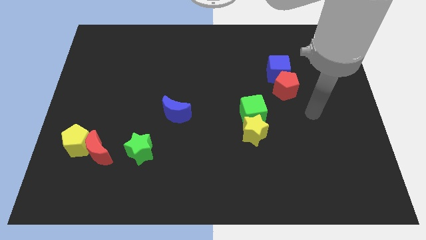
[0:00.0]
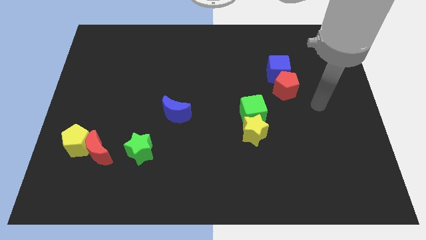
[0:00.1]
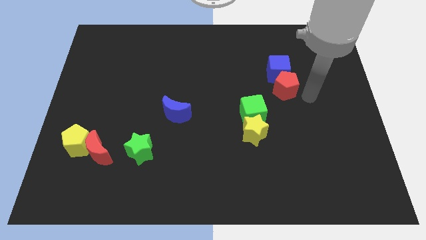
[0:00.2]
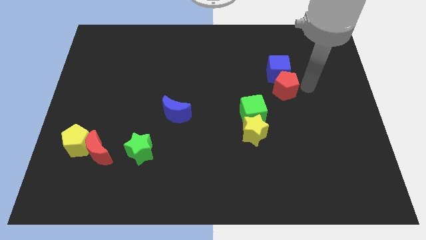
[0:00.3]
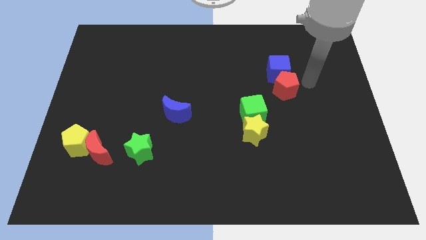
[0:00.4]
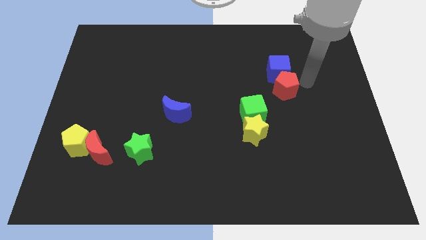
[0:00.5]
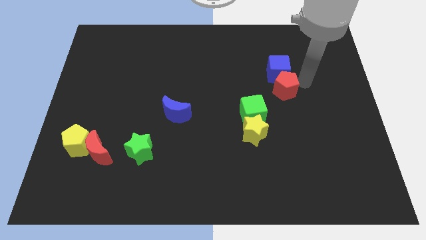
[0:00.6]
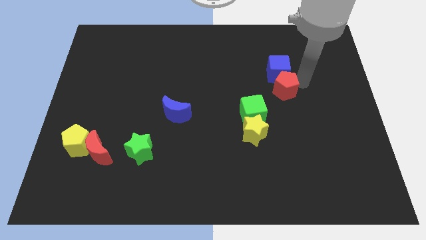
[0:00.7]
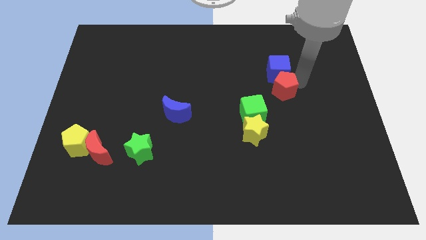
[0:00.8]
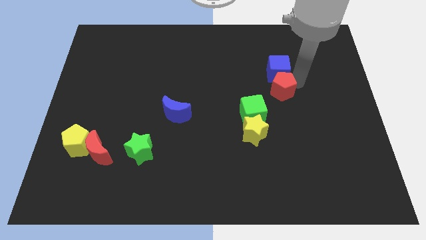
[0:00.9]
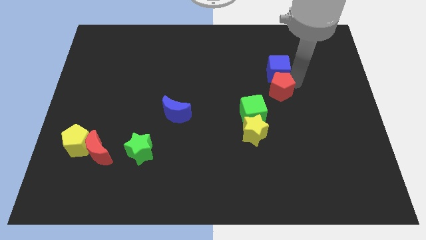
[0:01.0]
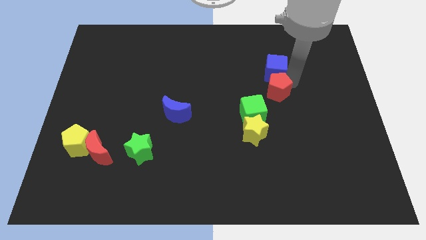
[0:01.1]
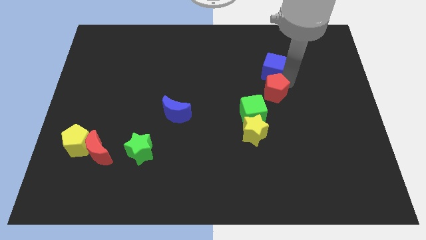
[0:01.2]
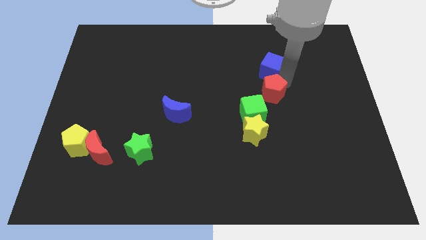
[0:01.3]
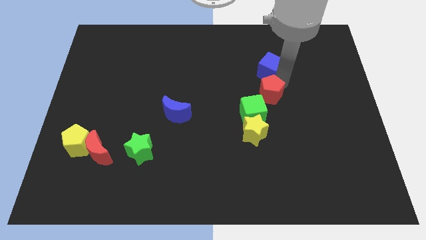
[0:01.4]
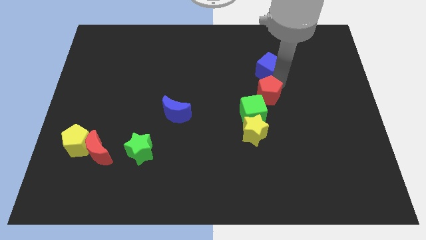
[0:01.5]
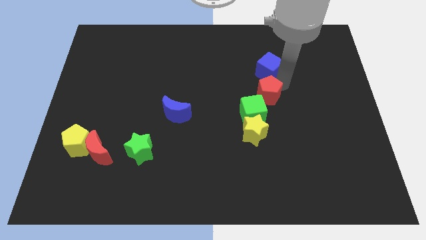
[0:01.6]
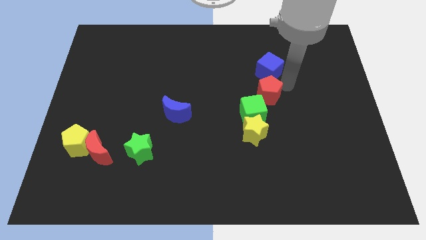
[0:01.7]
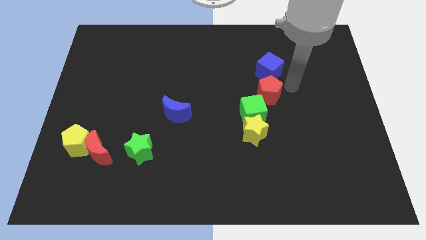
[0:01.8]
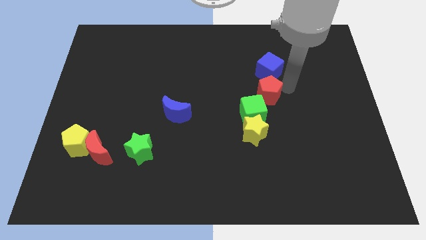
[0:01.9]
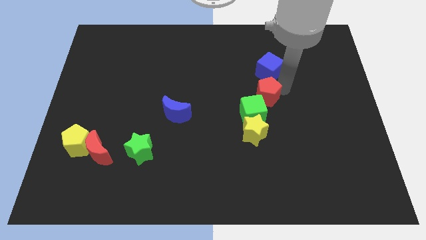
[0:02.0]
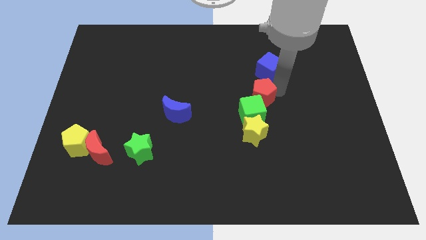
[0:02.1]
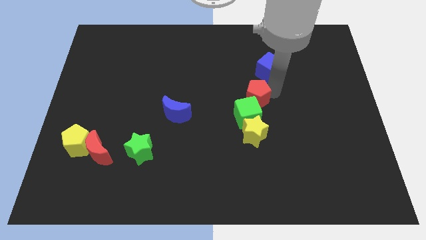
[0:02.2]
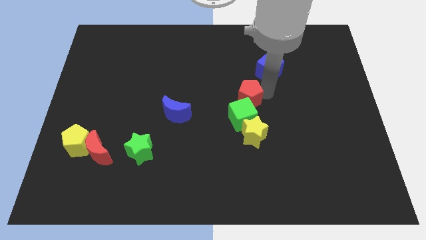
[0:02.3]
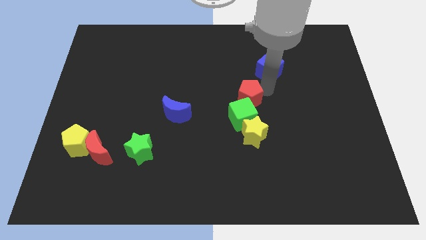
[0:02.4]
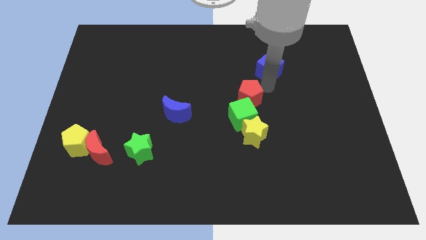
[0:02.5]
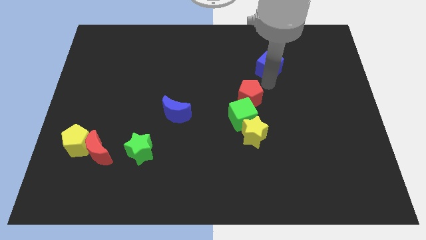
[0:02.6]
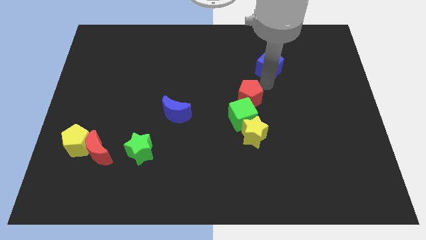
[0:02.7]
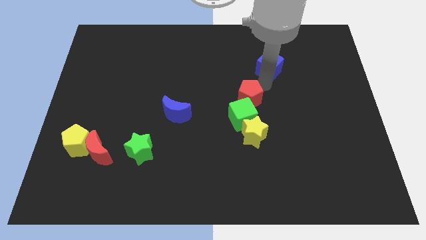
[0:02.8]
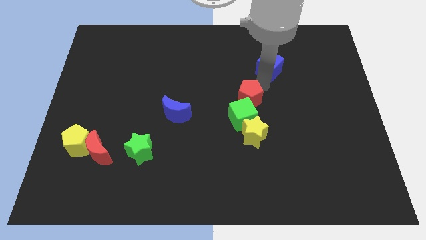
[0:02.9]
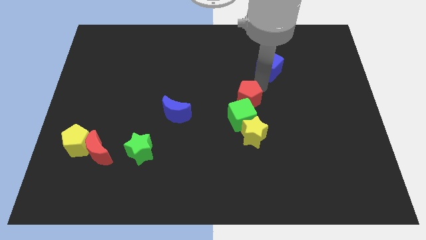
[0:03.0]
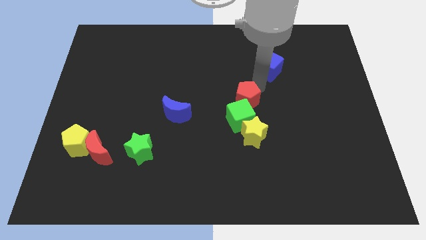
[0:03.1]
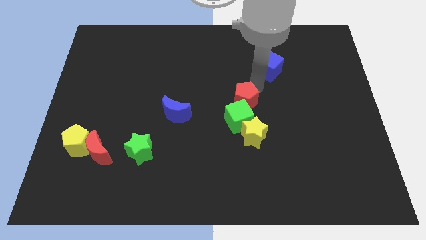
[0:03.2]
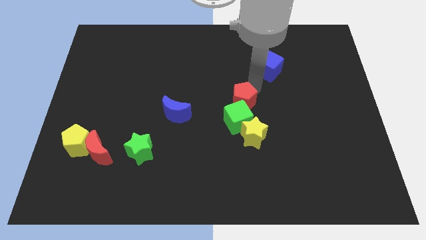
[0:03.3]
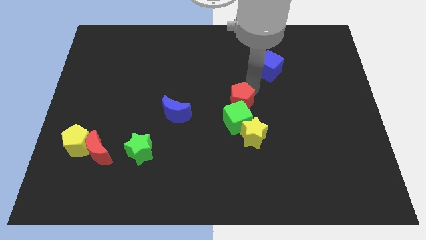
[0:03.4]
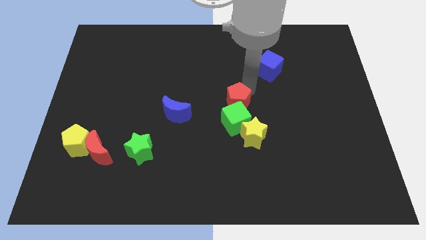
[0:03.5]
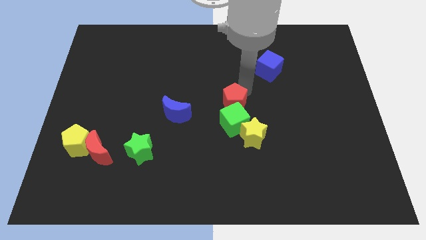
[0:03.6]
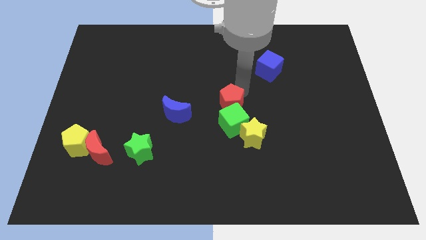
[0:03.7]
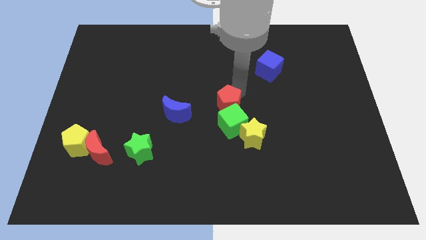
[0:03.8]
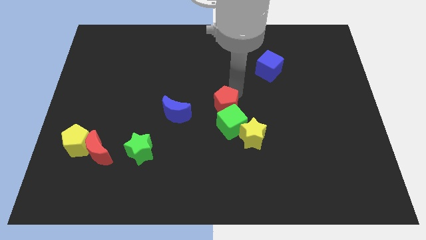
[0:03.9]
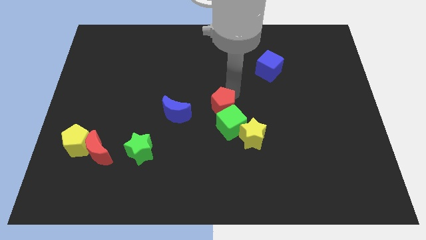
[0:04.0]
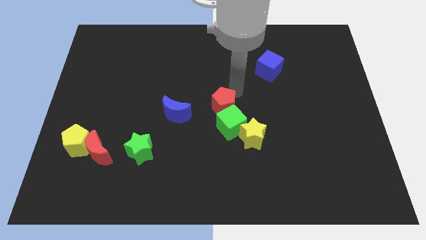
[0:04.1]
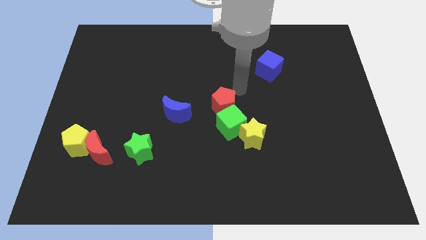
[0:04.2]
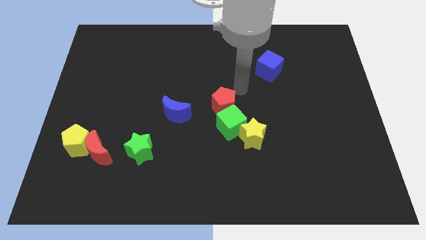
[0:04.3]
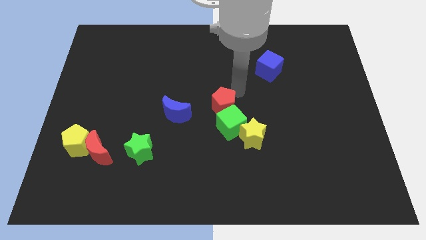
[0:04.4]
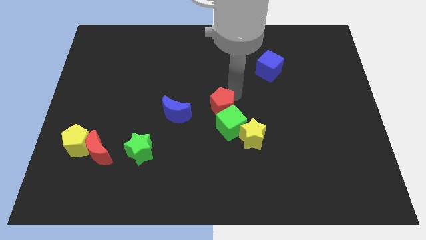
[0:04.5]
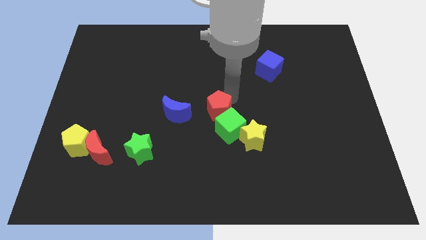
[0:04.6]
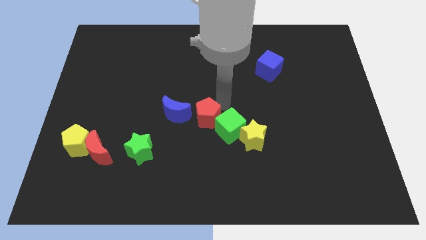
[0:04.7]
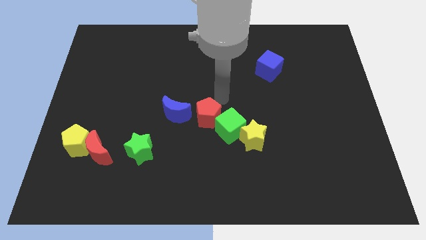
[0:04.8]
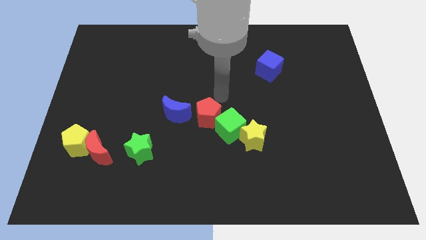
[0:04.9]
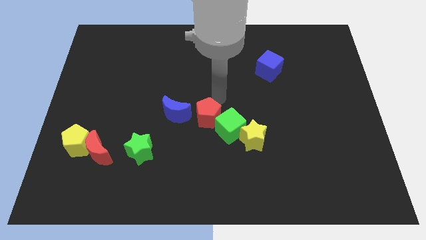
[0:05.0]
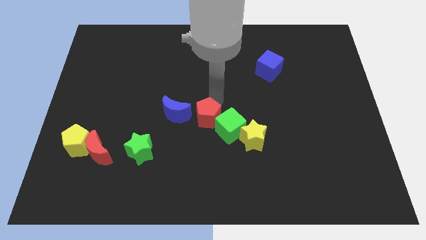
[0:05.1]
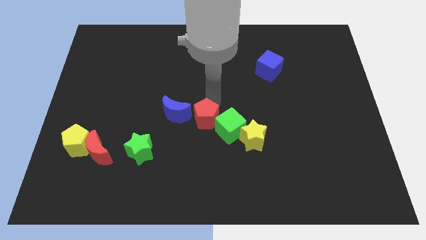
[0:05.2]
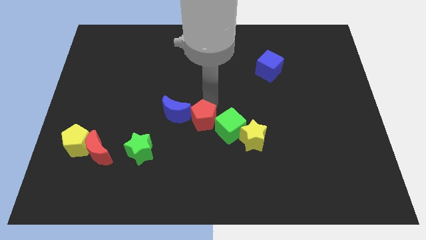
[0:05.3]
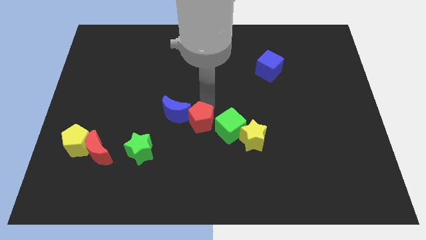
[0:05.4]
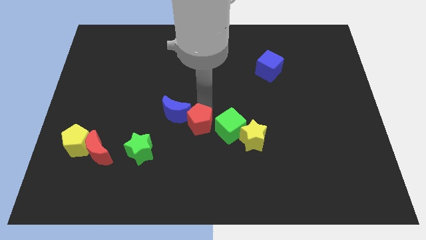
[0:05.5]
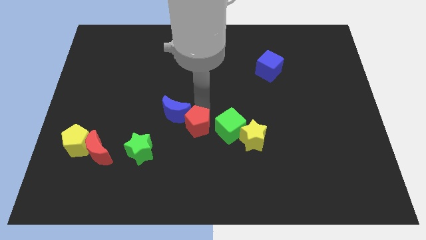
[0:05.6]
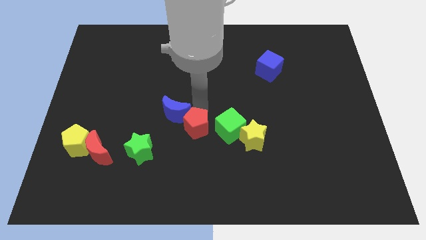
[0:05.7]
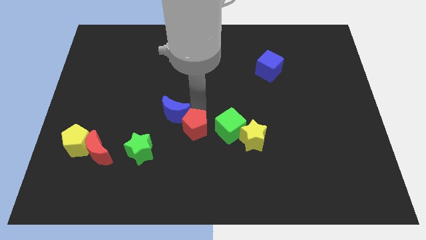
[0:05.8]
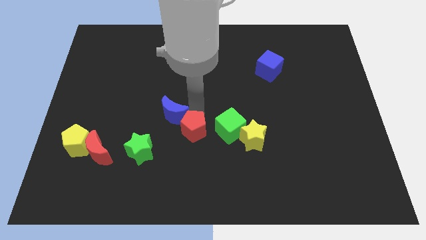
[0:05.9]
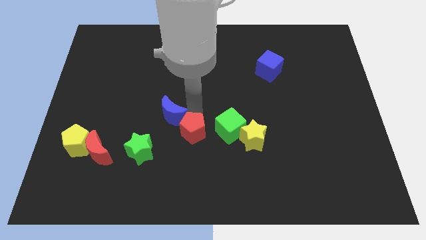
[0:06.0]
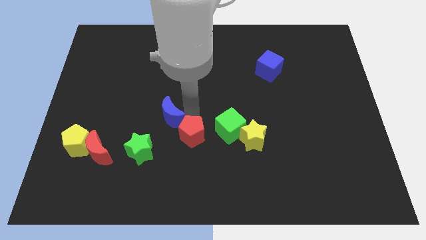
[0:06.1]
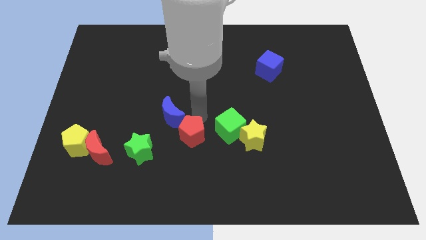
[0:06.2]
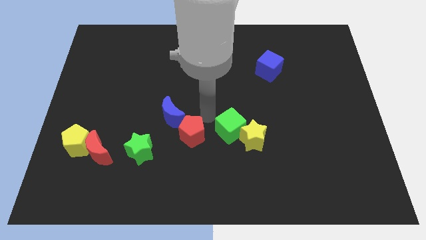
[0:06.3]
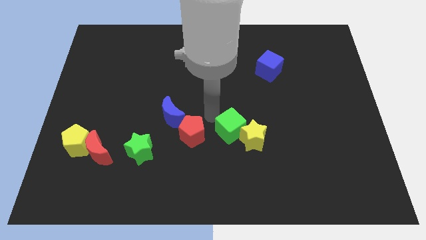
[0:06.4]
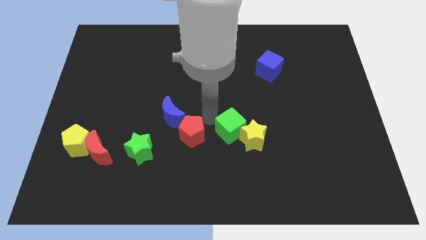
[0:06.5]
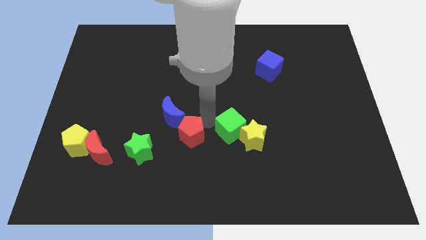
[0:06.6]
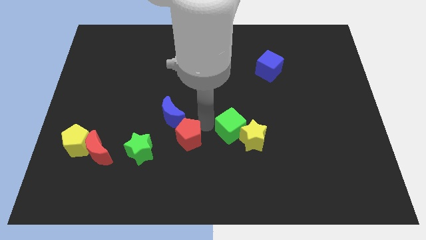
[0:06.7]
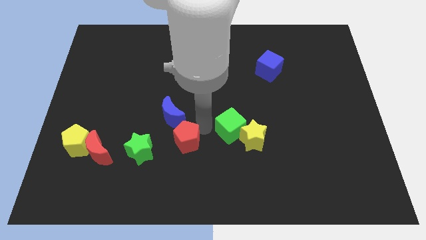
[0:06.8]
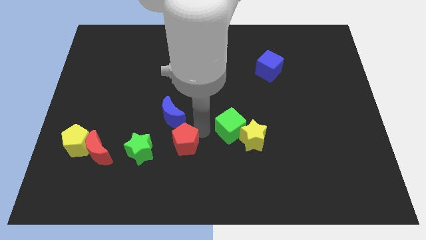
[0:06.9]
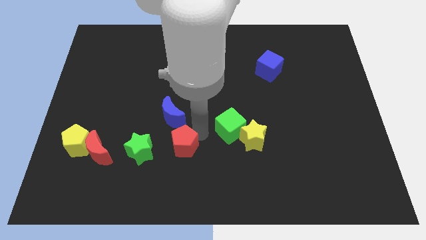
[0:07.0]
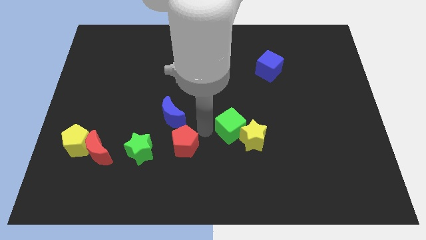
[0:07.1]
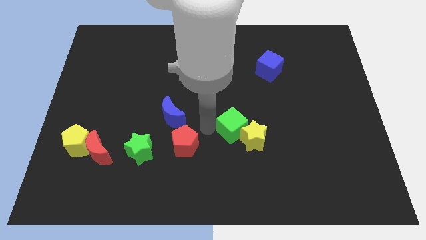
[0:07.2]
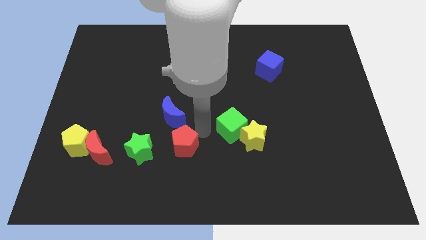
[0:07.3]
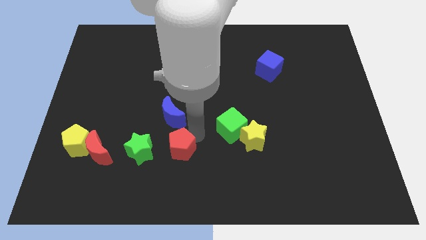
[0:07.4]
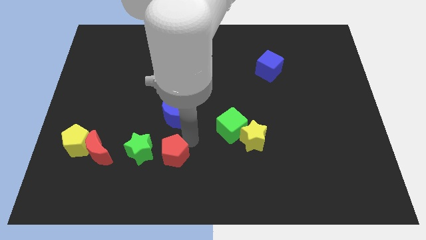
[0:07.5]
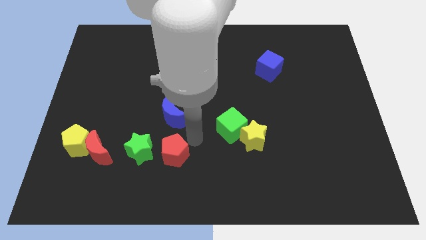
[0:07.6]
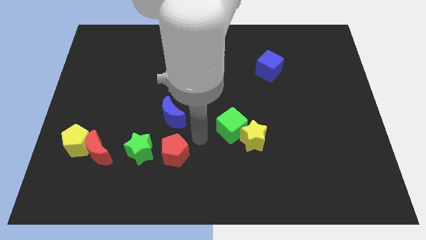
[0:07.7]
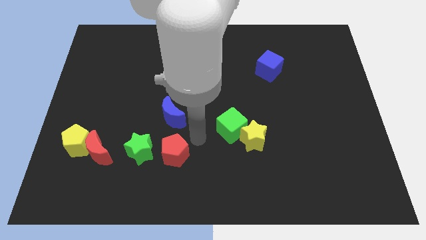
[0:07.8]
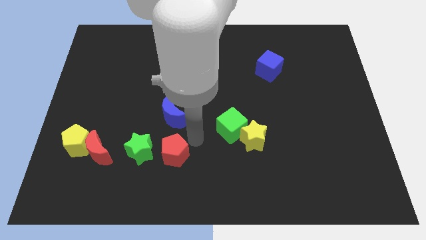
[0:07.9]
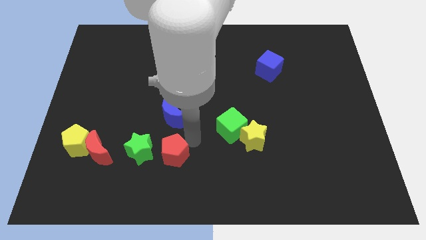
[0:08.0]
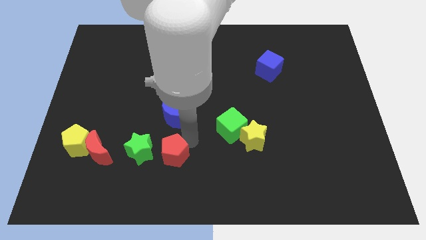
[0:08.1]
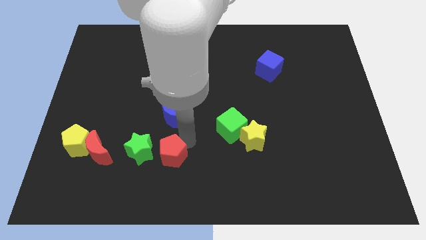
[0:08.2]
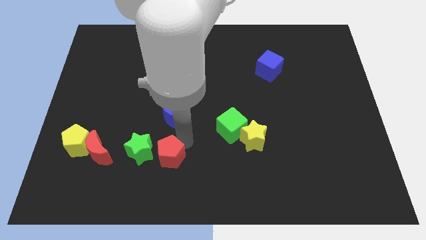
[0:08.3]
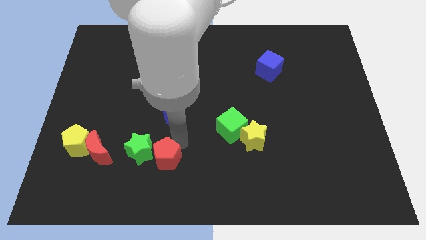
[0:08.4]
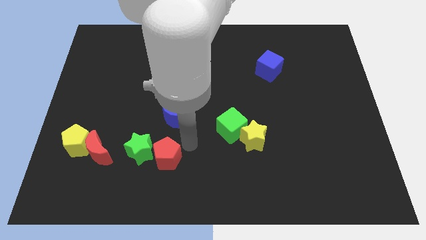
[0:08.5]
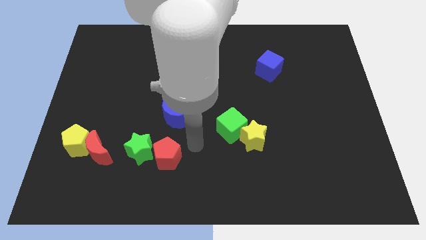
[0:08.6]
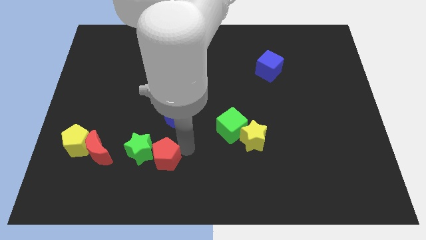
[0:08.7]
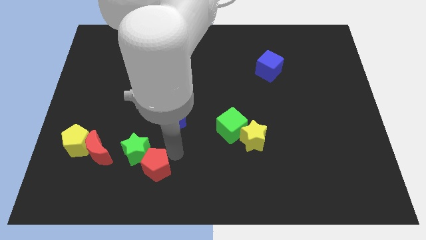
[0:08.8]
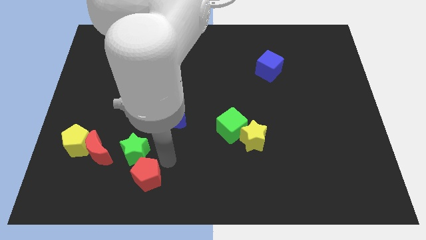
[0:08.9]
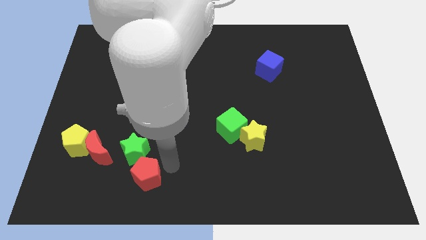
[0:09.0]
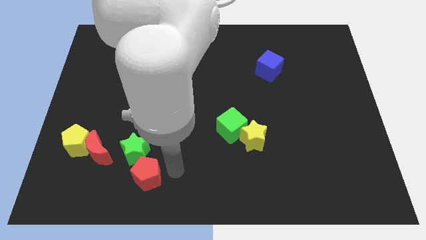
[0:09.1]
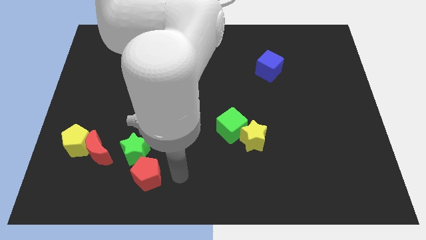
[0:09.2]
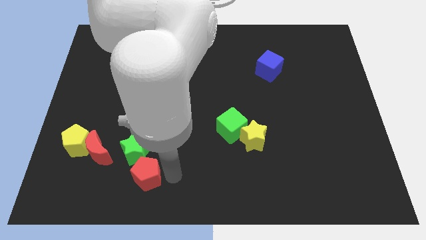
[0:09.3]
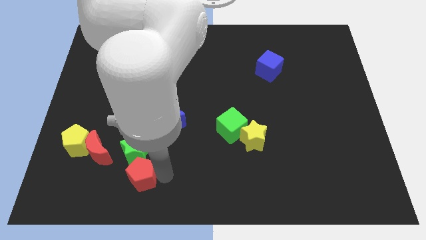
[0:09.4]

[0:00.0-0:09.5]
put the red pentagon diagonally down and to the right of the red moon
